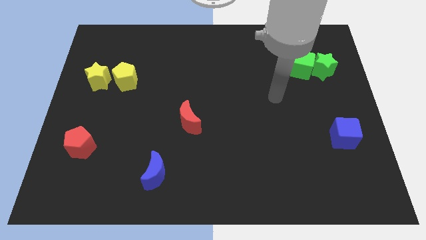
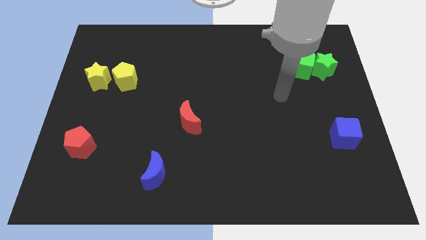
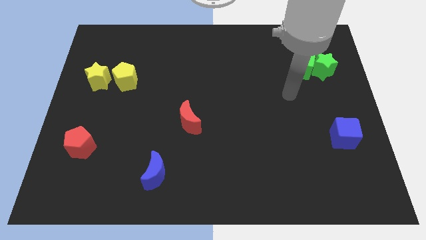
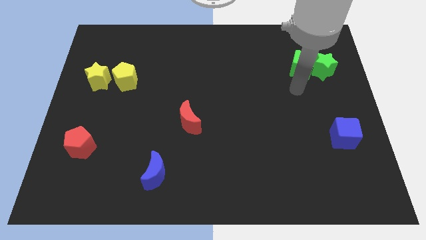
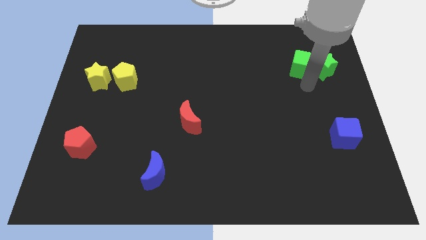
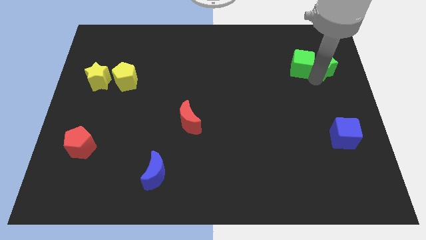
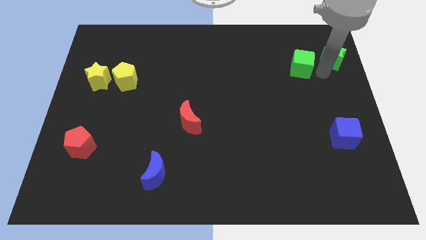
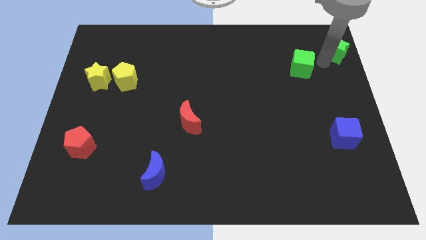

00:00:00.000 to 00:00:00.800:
pull the green cube apart from the green star

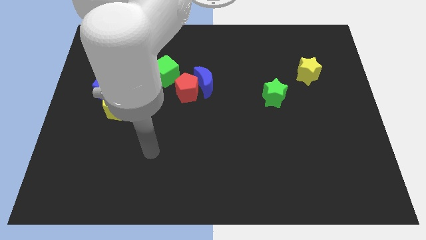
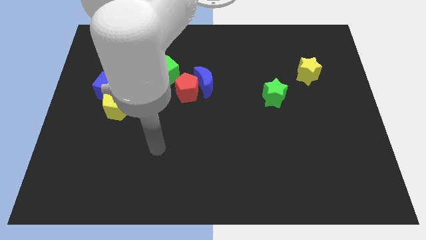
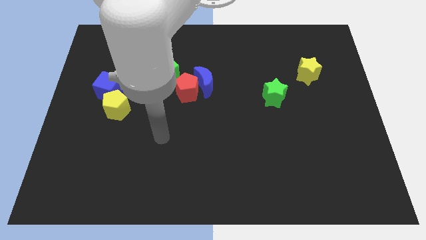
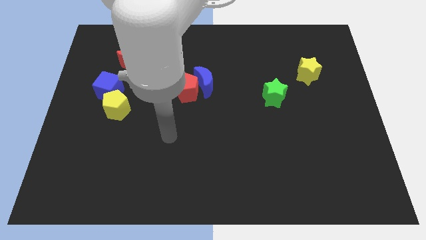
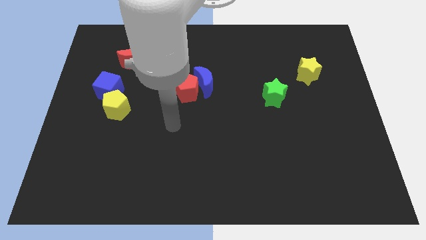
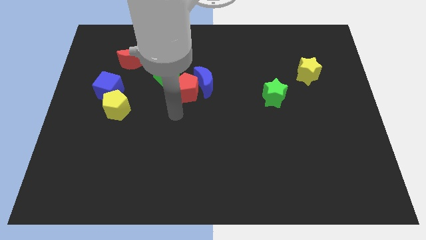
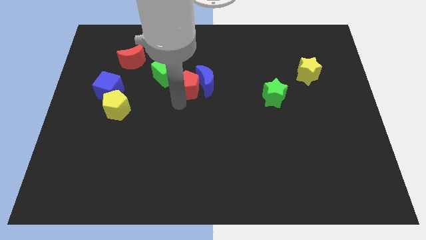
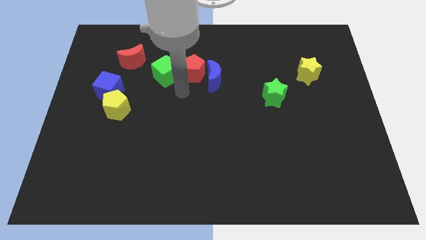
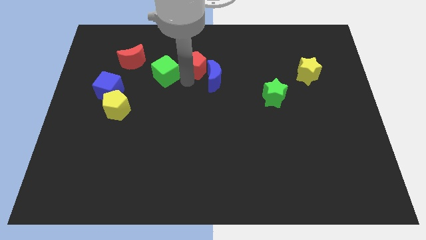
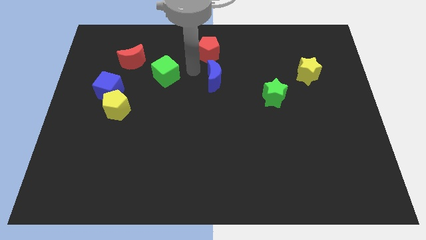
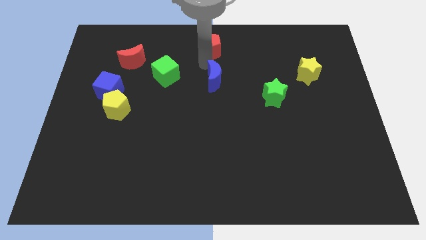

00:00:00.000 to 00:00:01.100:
move the blue moon away from the red pentagon

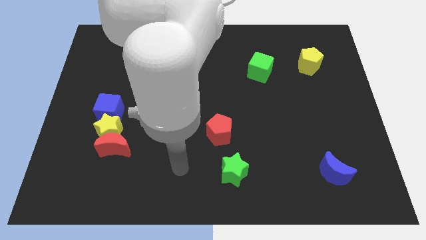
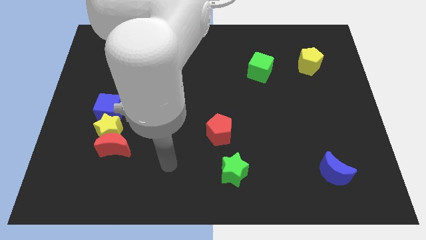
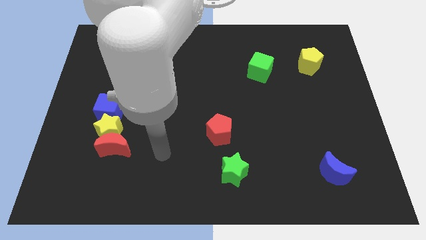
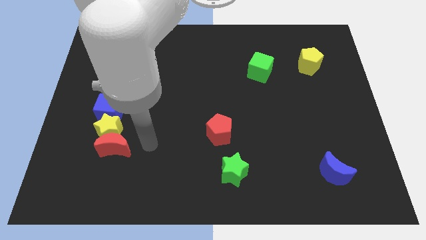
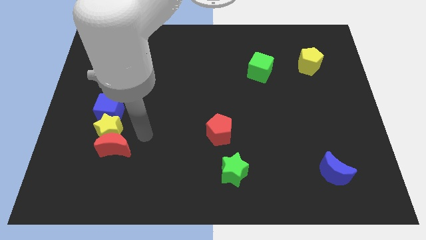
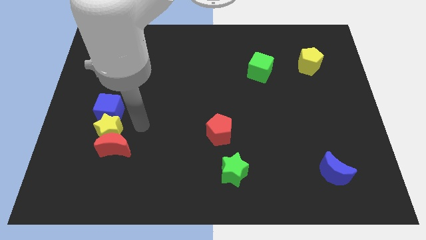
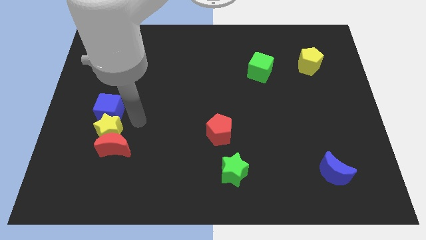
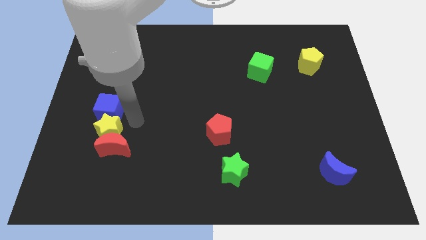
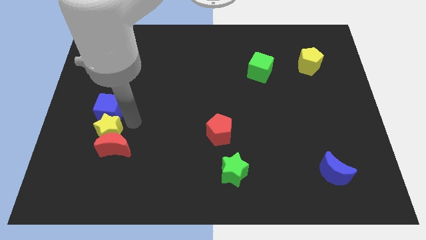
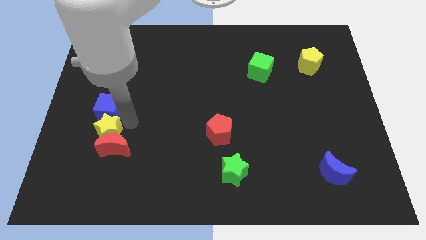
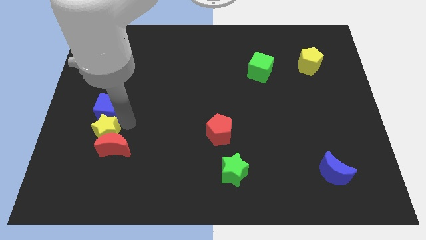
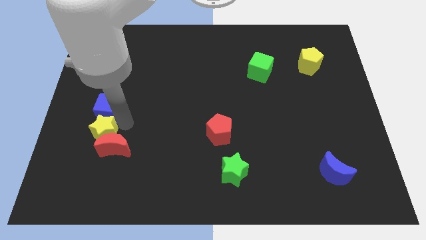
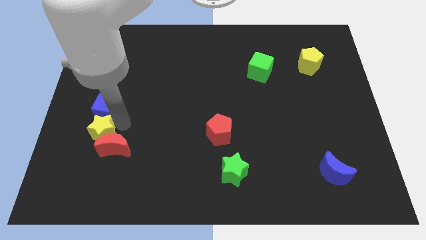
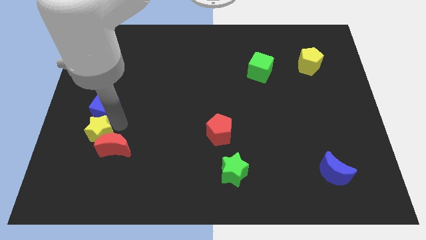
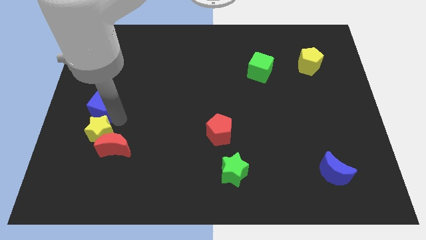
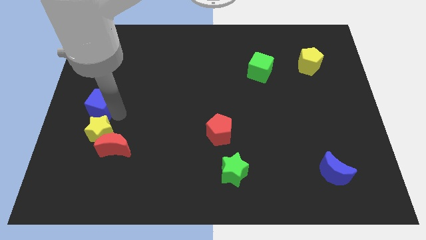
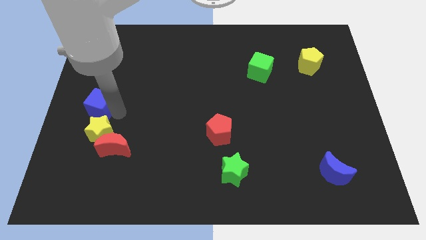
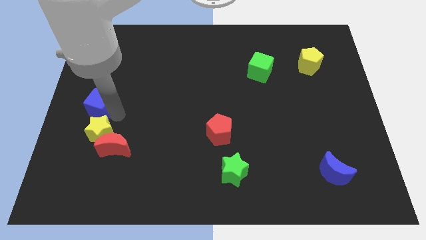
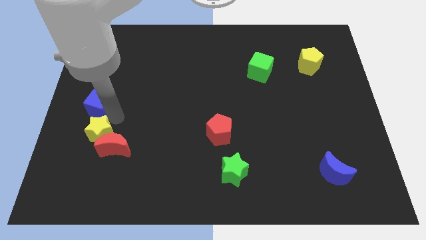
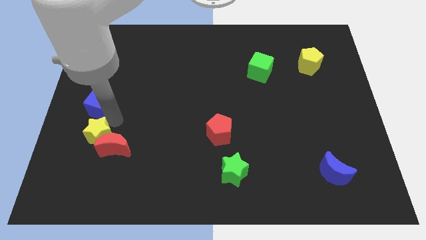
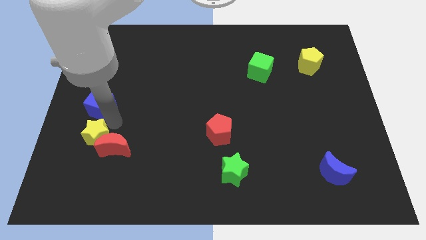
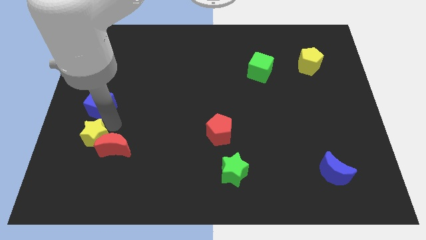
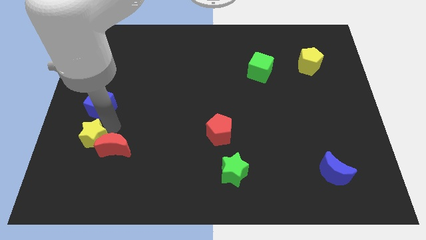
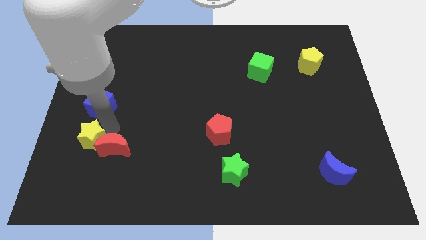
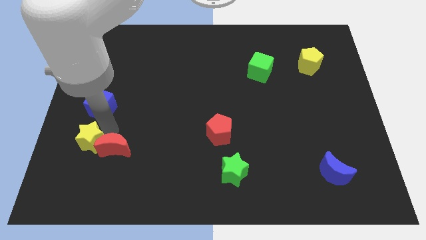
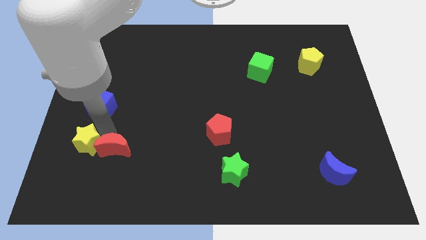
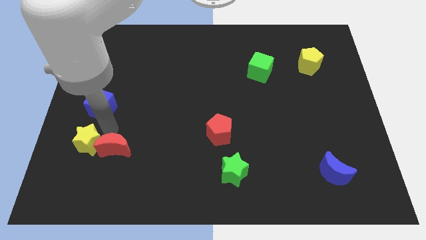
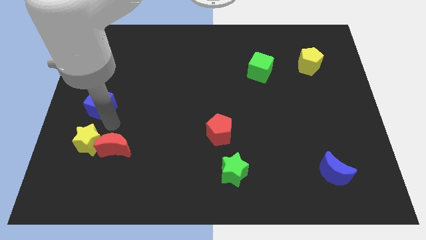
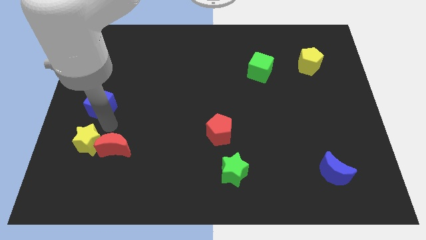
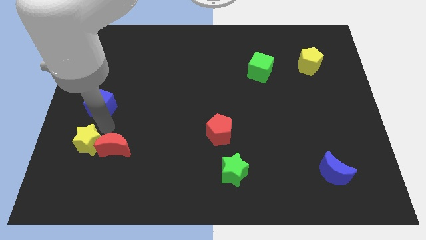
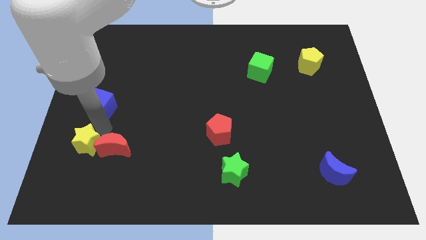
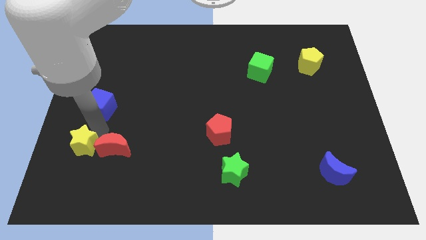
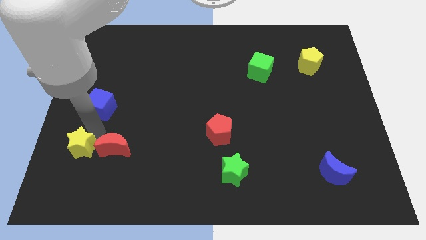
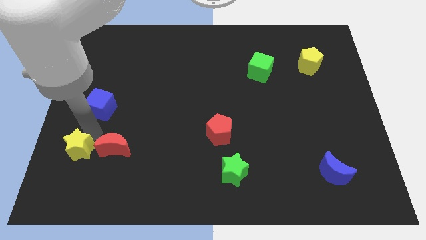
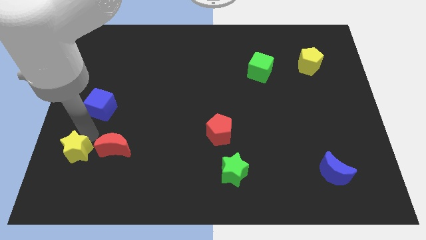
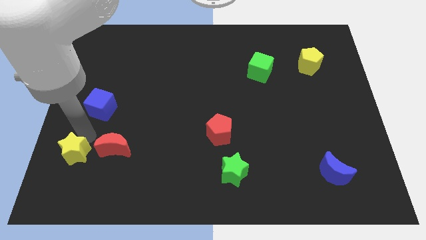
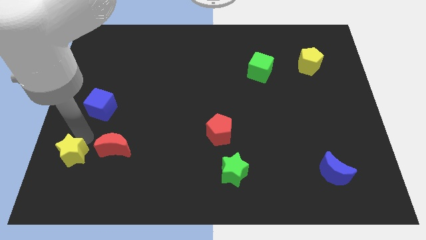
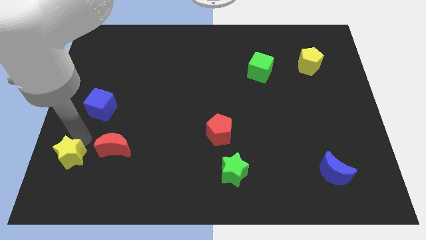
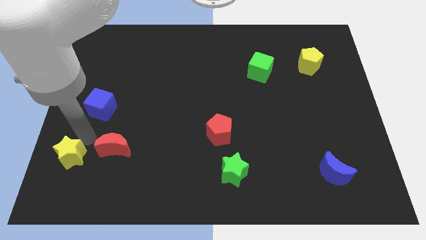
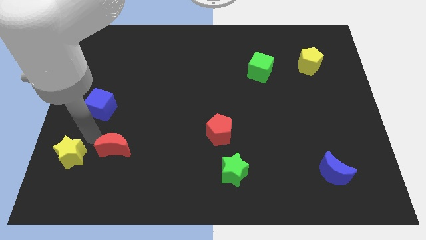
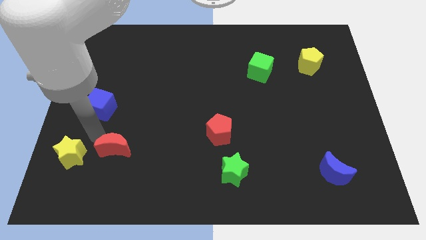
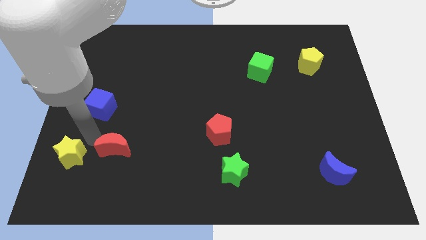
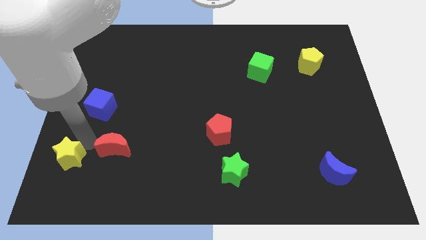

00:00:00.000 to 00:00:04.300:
pull the yellow star apart from the red moon and blue cube

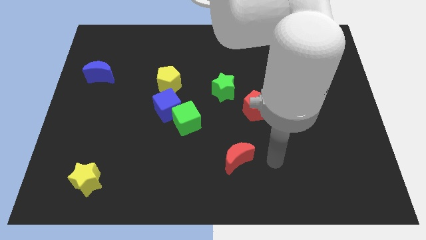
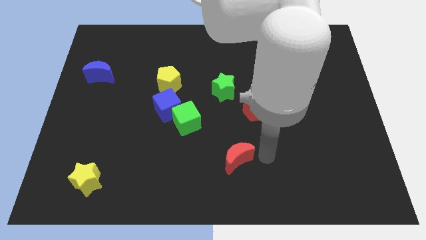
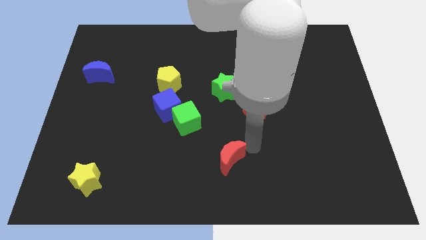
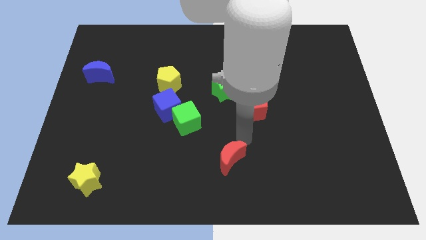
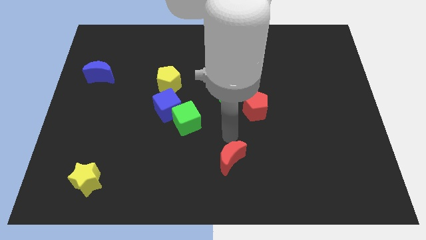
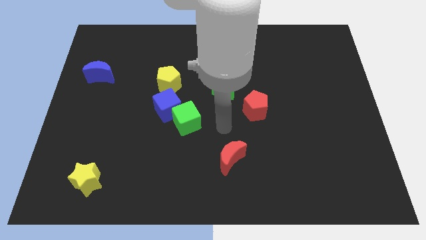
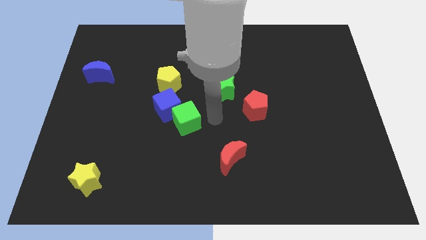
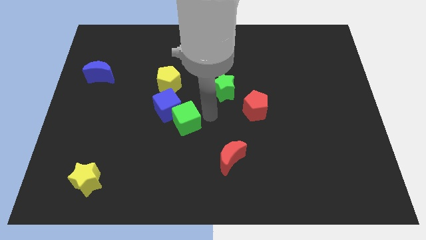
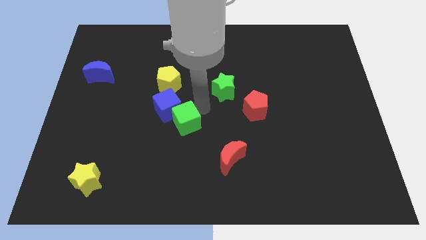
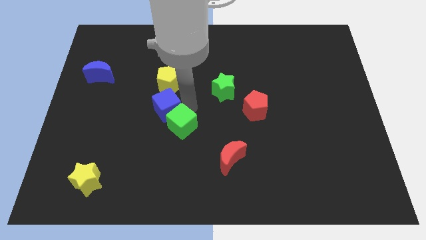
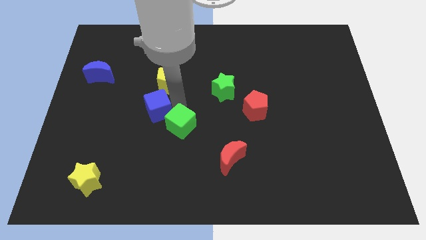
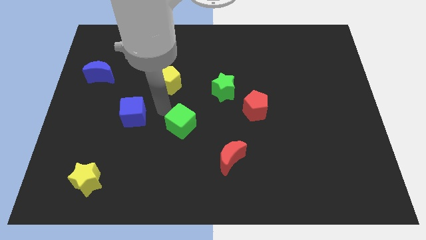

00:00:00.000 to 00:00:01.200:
move the green cube away from the blue cube

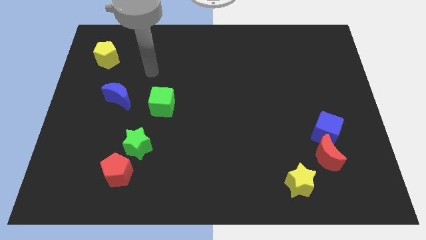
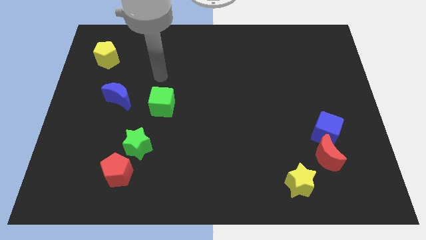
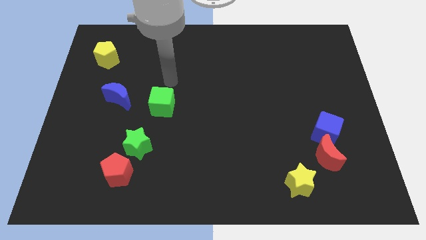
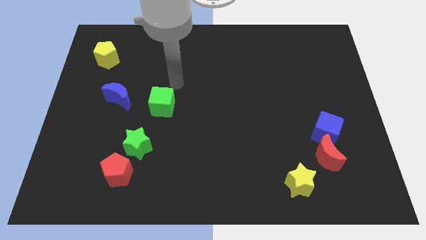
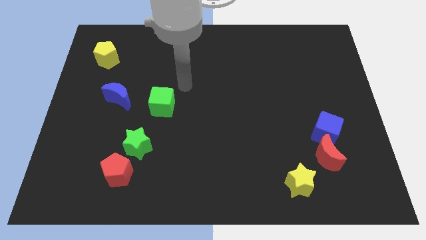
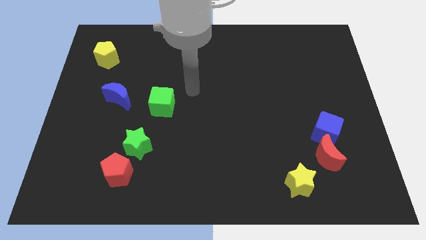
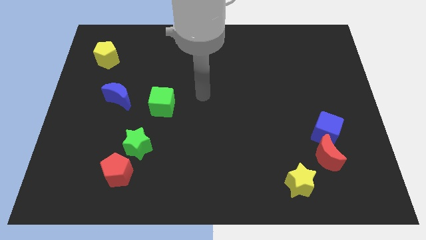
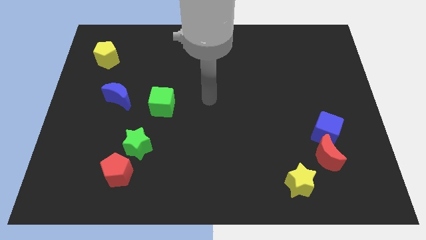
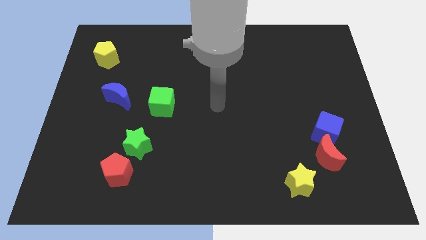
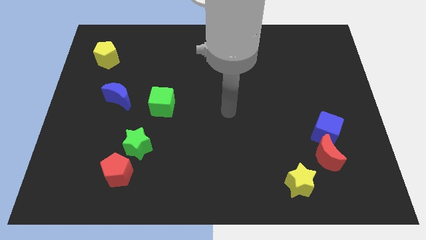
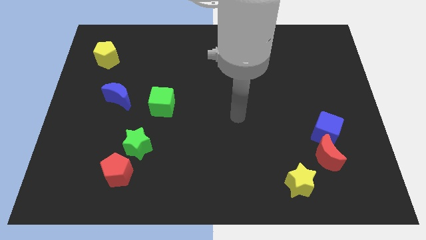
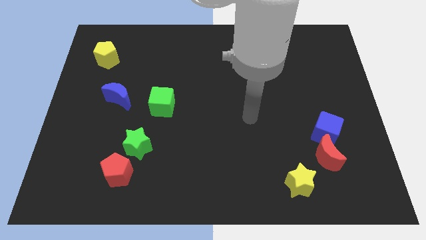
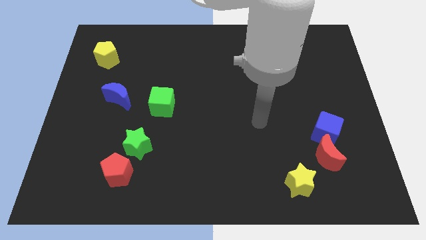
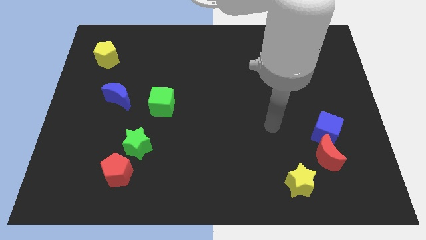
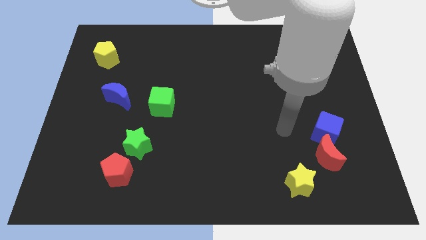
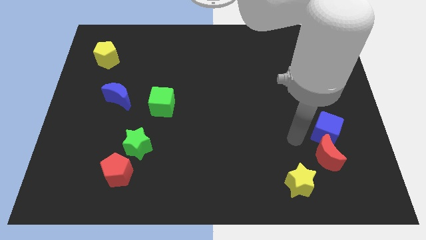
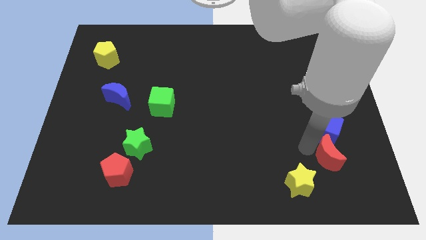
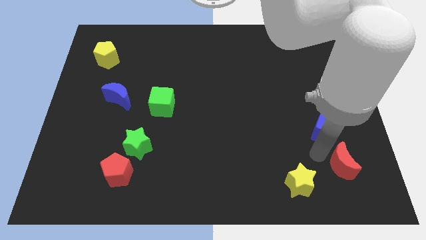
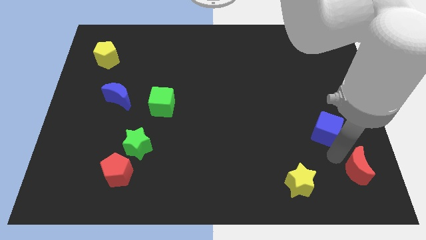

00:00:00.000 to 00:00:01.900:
separate the blue cube from the red moon

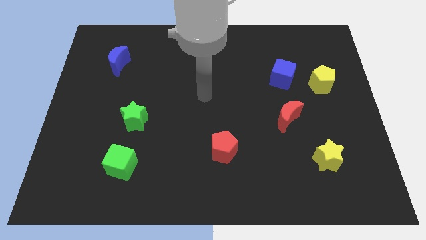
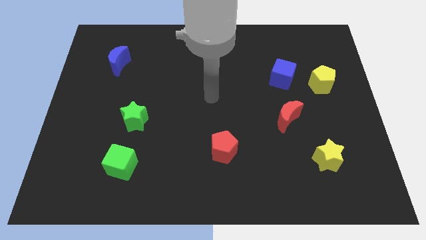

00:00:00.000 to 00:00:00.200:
separate the blue cube from the yellow pentagon

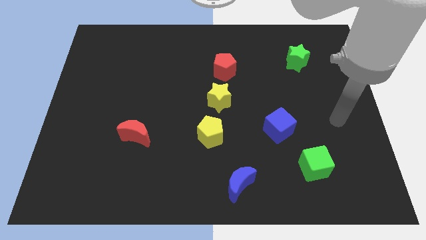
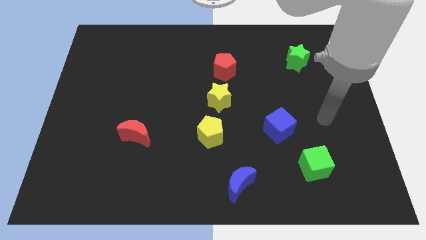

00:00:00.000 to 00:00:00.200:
separate the red pentagon from the yellow star
